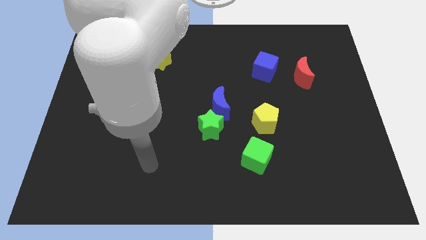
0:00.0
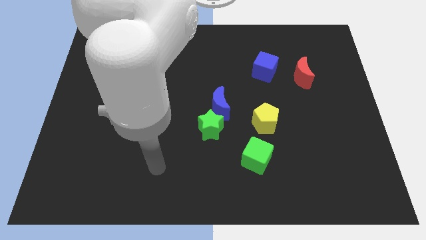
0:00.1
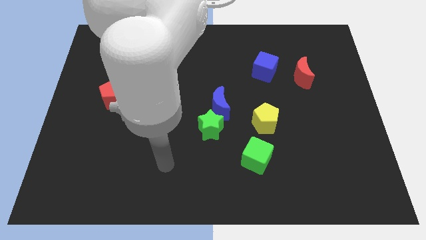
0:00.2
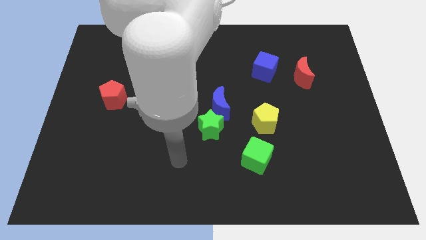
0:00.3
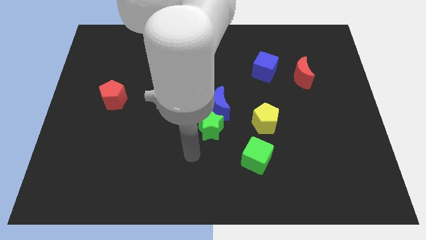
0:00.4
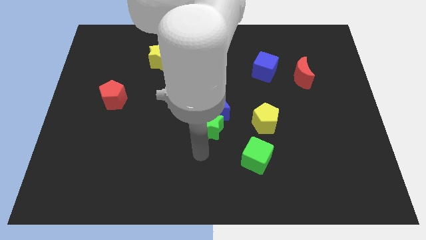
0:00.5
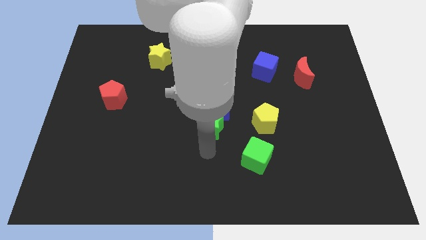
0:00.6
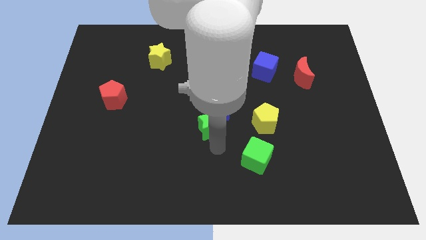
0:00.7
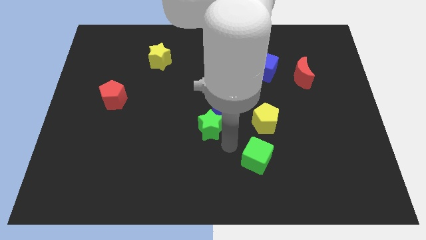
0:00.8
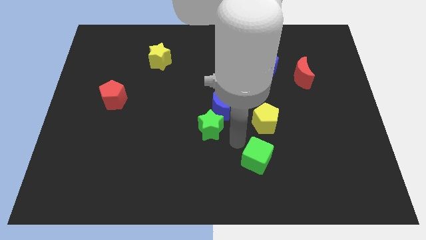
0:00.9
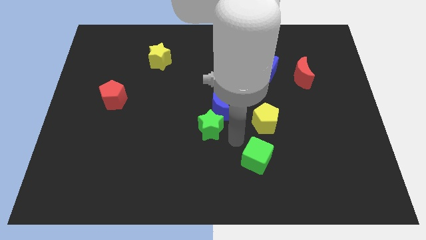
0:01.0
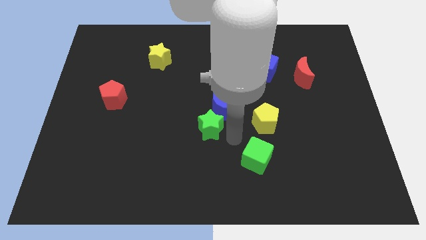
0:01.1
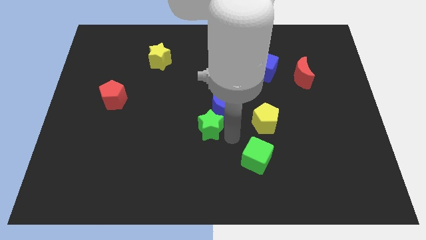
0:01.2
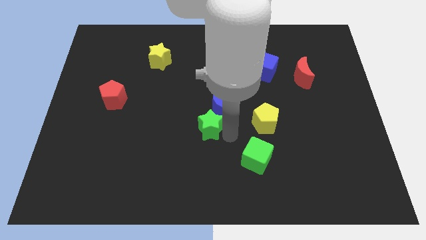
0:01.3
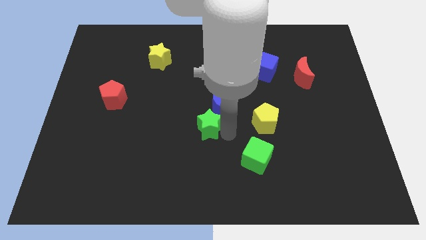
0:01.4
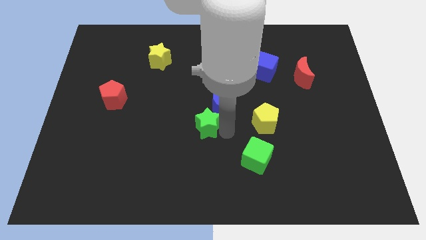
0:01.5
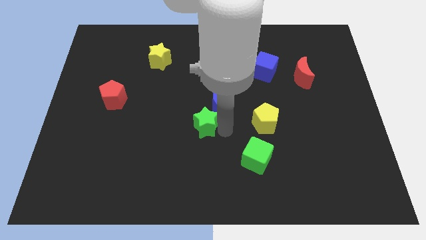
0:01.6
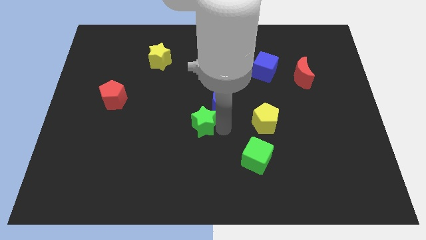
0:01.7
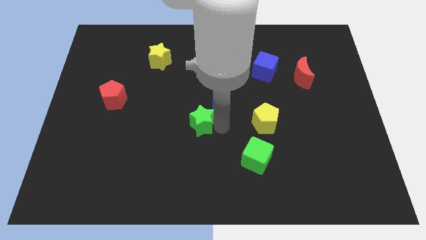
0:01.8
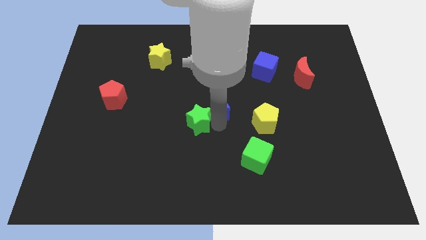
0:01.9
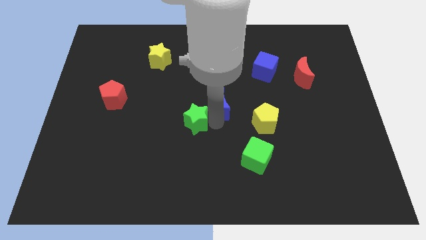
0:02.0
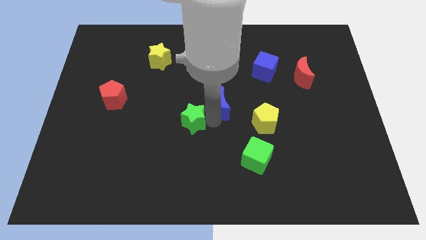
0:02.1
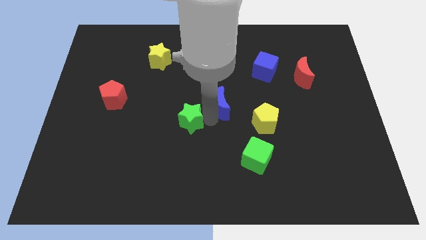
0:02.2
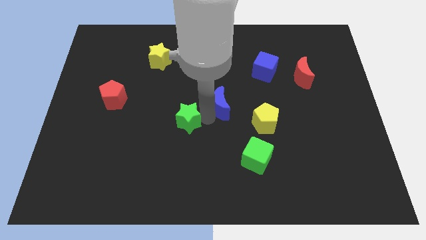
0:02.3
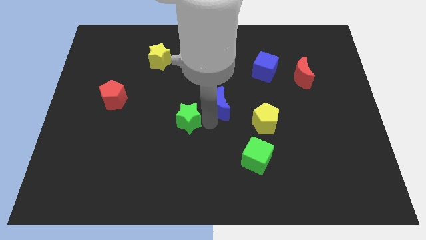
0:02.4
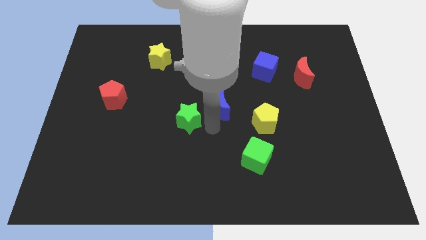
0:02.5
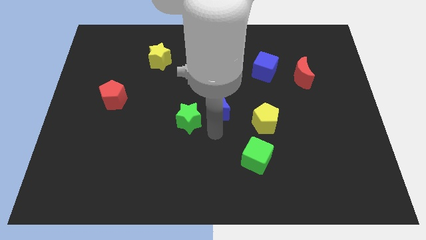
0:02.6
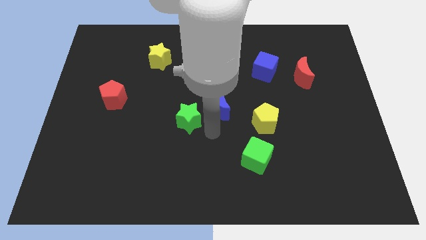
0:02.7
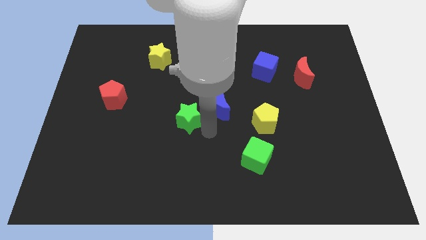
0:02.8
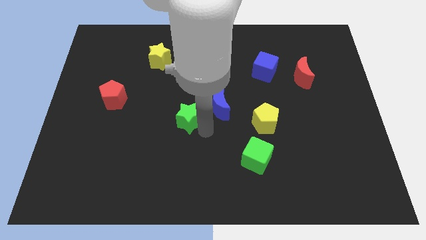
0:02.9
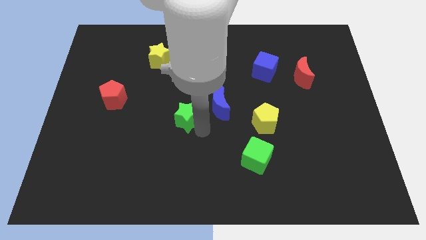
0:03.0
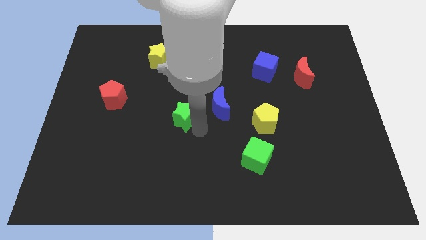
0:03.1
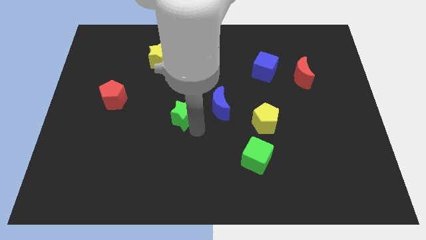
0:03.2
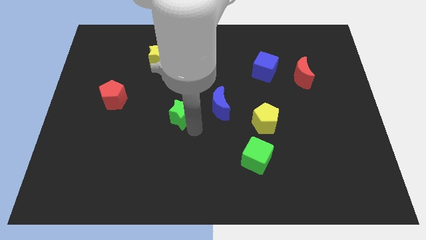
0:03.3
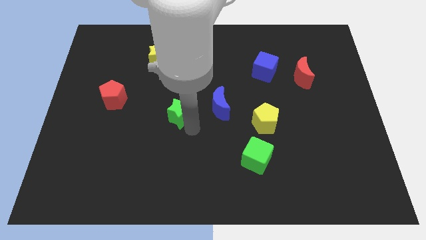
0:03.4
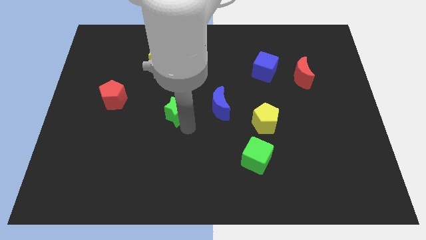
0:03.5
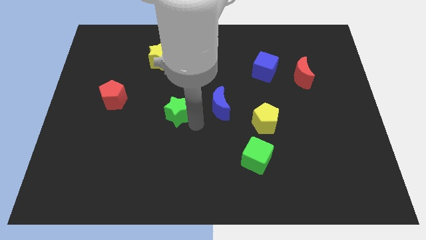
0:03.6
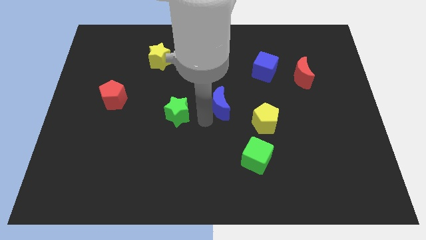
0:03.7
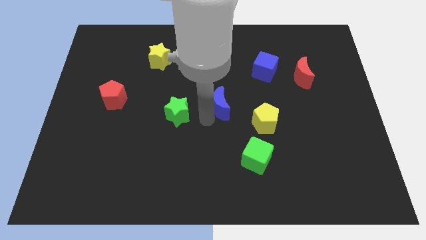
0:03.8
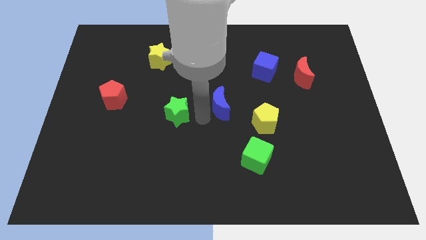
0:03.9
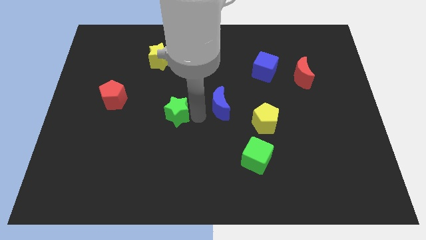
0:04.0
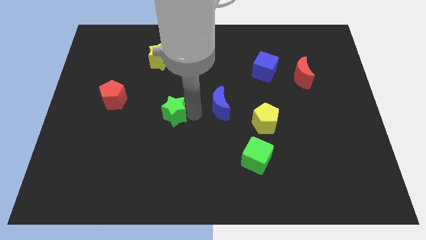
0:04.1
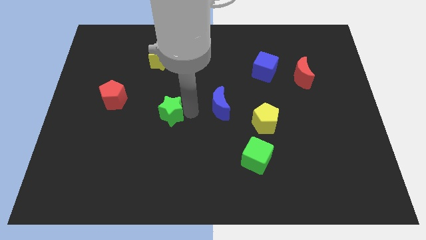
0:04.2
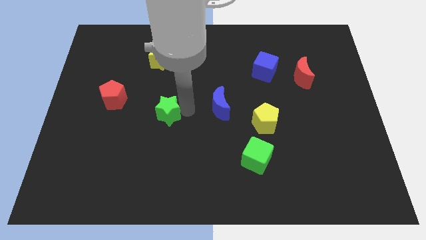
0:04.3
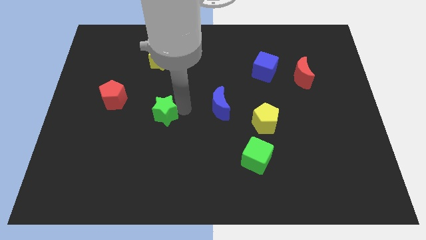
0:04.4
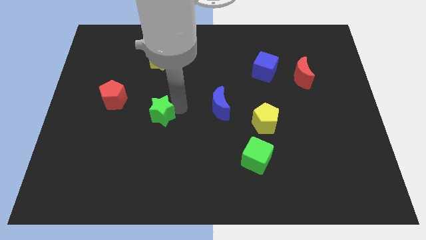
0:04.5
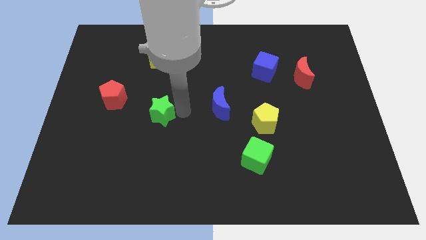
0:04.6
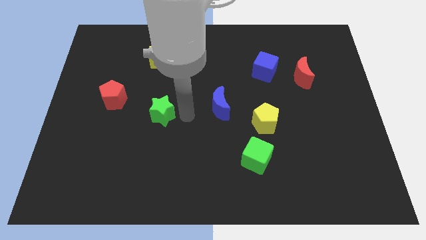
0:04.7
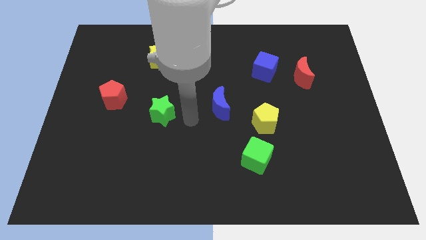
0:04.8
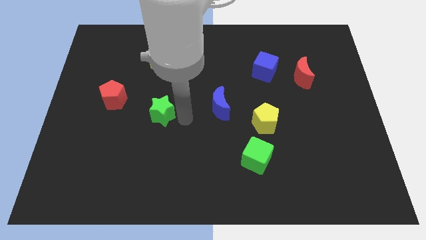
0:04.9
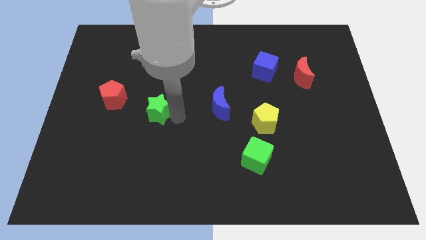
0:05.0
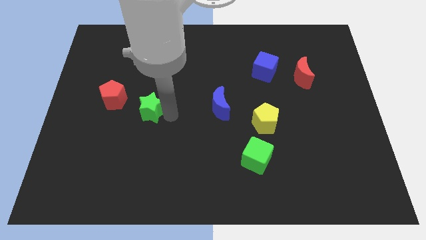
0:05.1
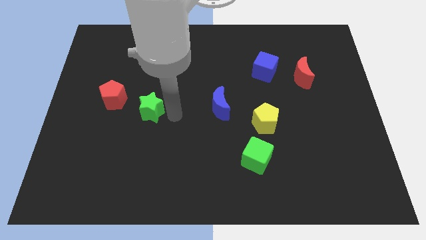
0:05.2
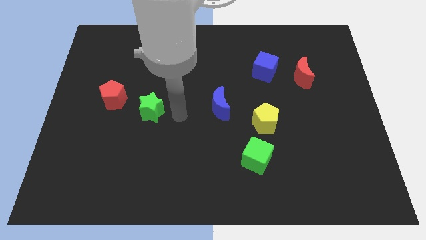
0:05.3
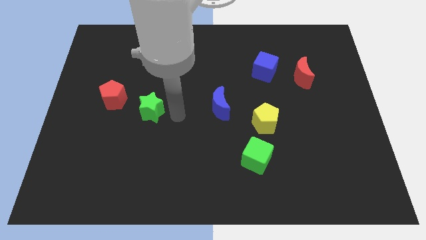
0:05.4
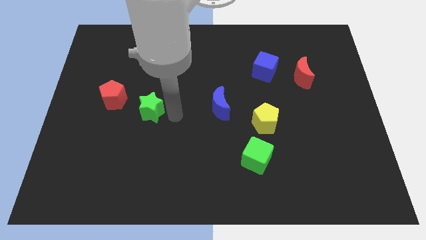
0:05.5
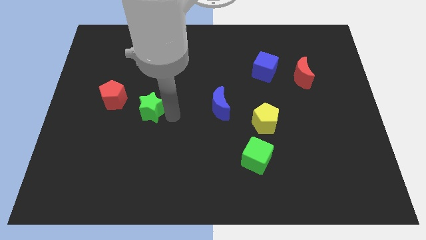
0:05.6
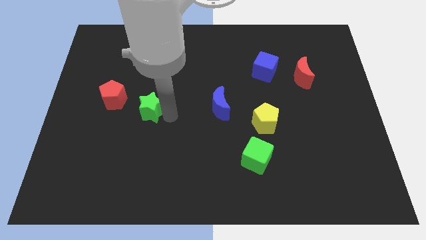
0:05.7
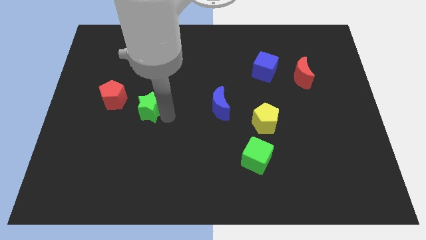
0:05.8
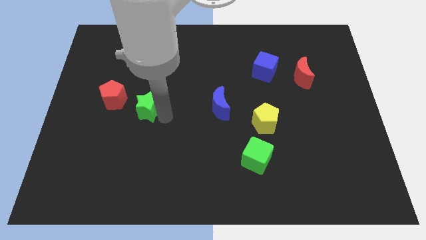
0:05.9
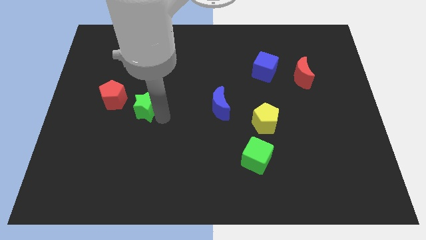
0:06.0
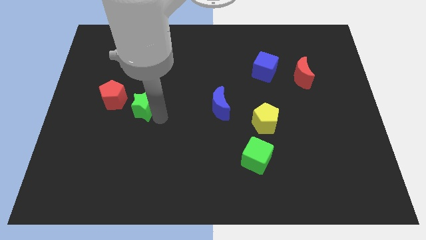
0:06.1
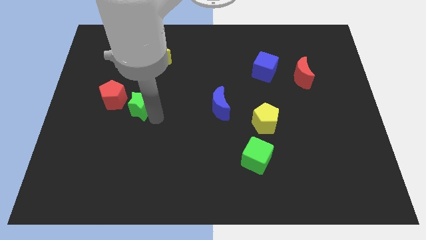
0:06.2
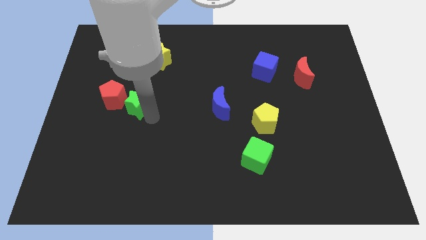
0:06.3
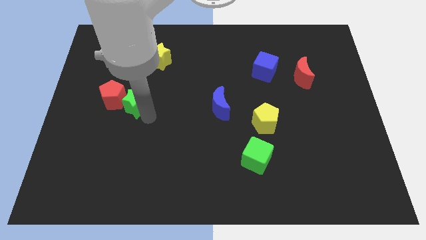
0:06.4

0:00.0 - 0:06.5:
push the green star towards the red pentagon

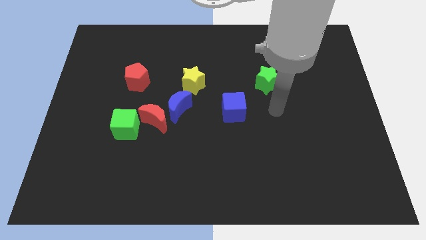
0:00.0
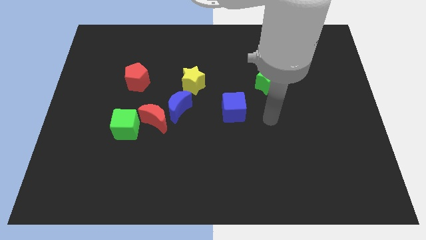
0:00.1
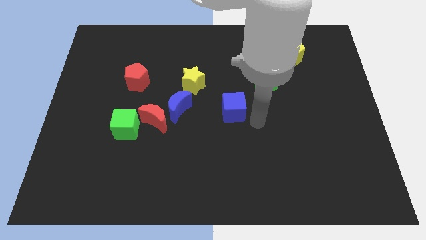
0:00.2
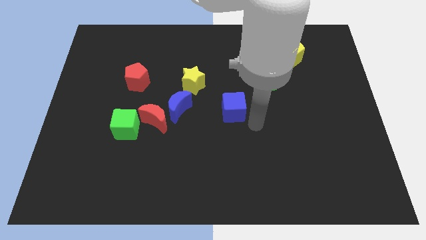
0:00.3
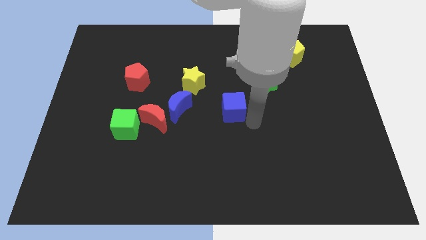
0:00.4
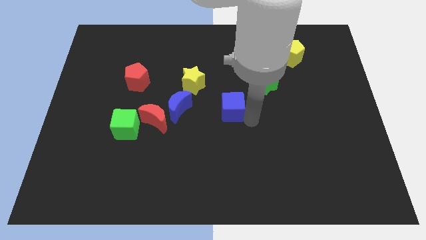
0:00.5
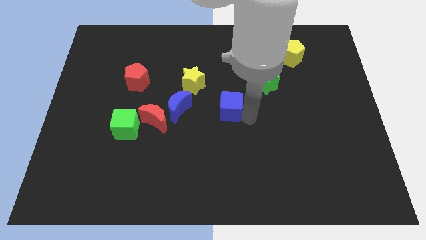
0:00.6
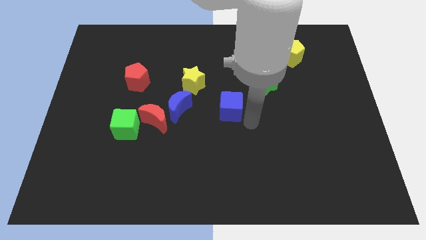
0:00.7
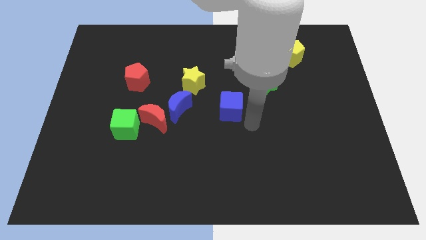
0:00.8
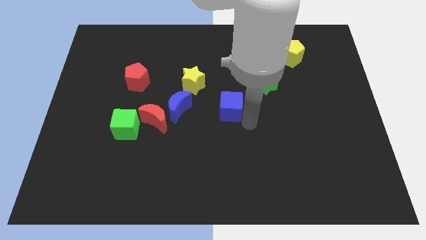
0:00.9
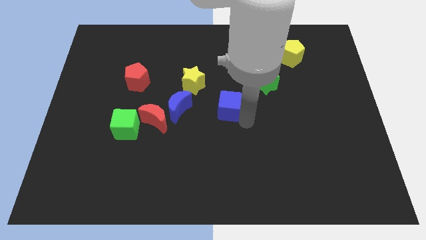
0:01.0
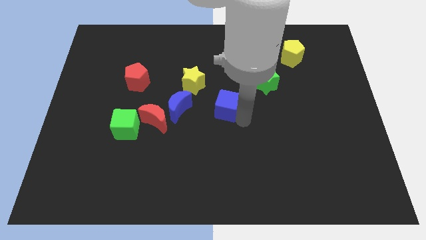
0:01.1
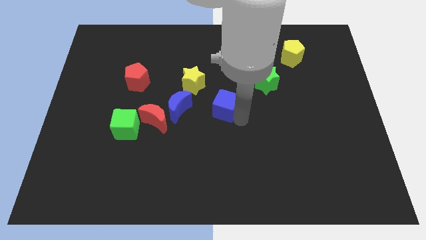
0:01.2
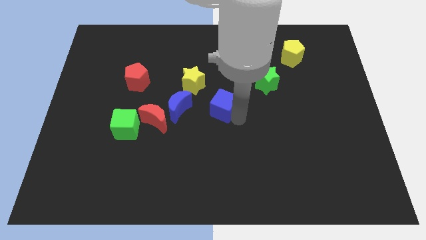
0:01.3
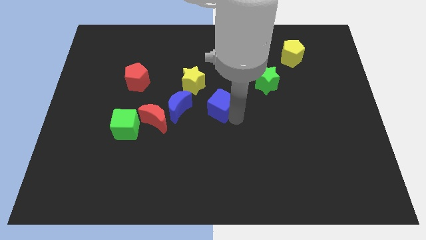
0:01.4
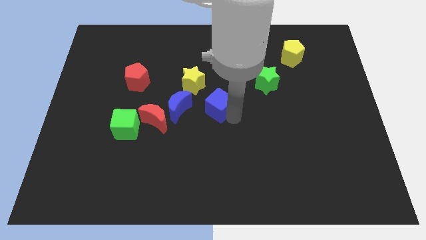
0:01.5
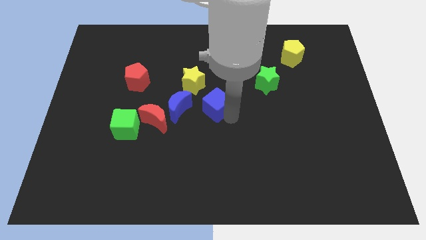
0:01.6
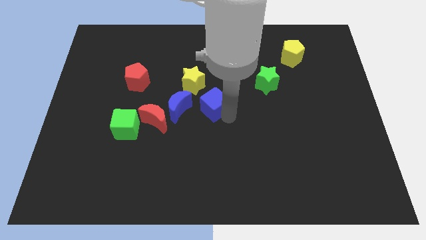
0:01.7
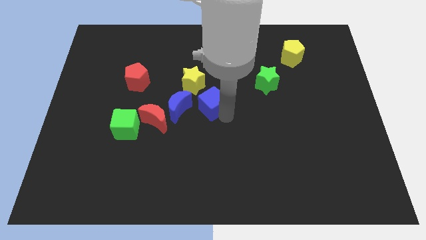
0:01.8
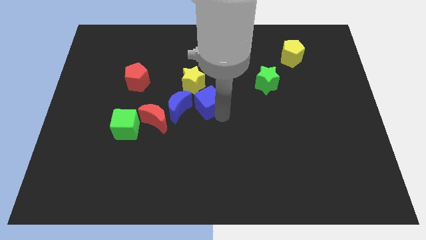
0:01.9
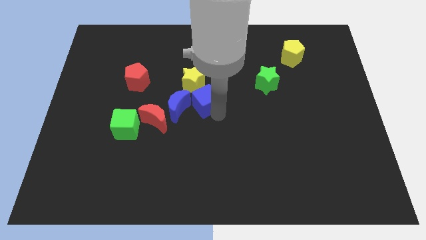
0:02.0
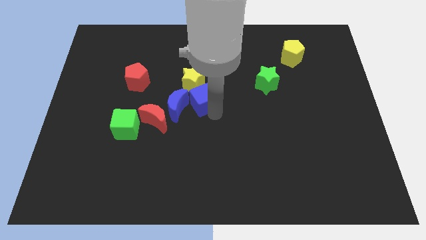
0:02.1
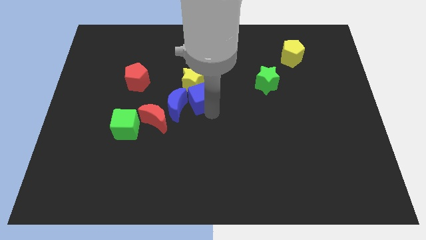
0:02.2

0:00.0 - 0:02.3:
slide the blue cube to the yellow star
